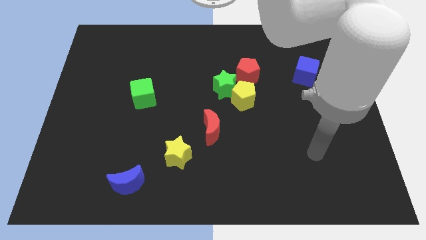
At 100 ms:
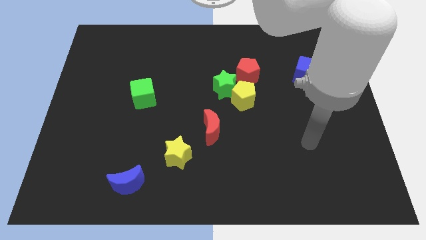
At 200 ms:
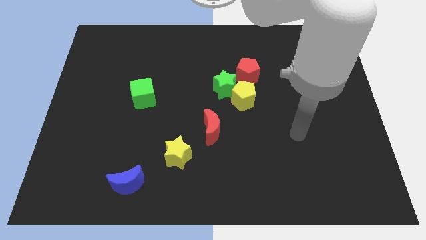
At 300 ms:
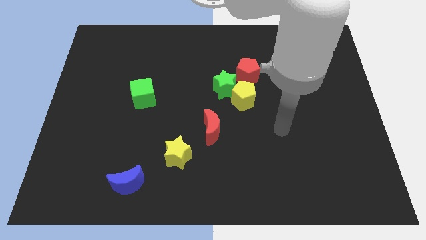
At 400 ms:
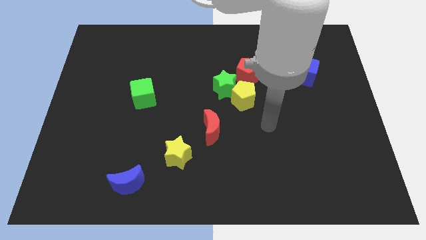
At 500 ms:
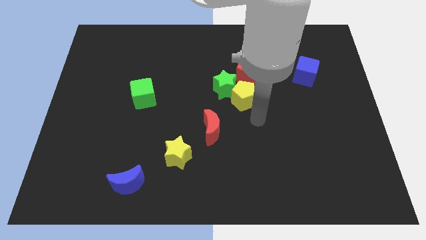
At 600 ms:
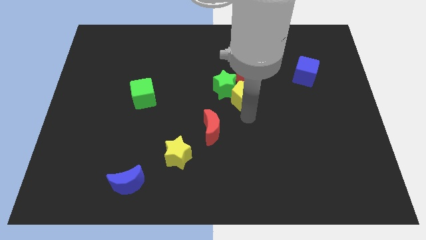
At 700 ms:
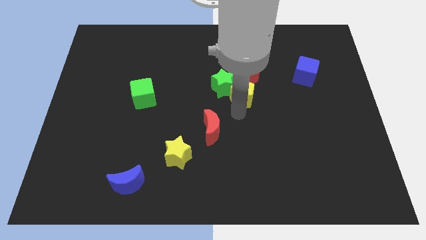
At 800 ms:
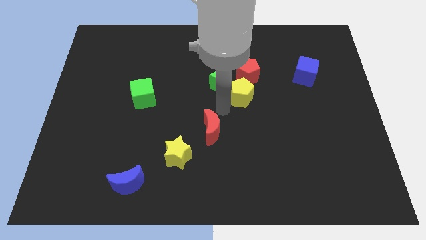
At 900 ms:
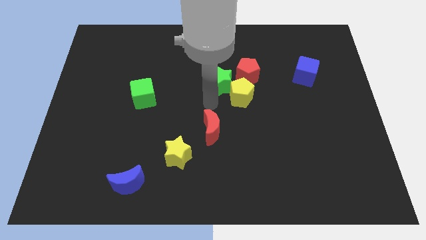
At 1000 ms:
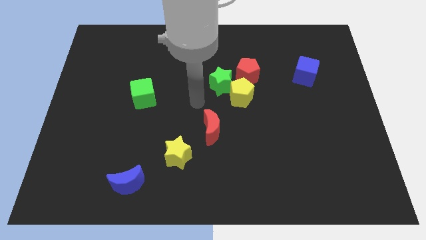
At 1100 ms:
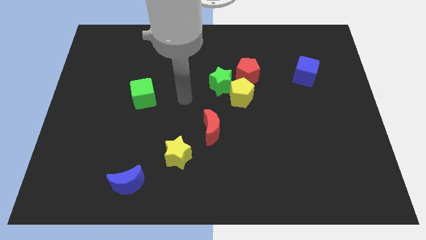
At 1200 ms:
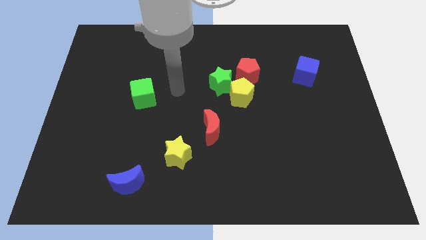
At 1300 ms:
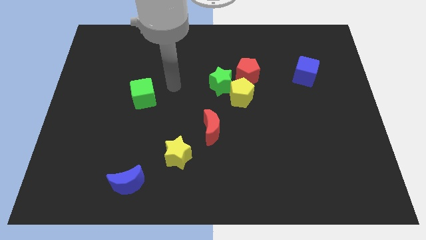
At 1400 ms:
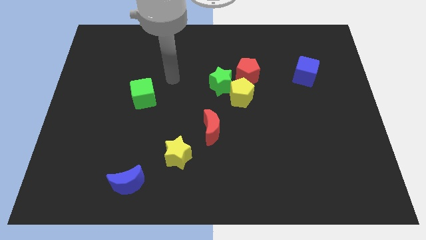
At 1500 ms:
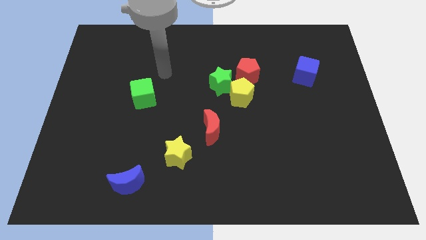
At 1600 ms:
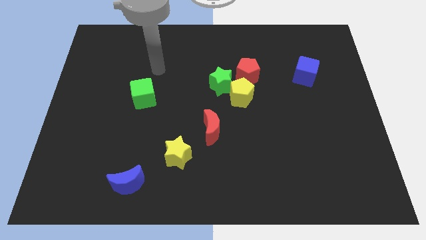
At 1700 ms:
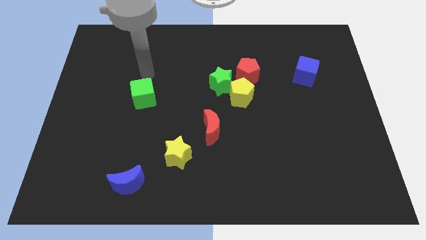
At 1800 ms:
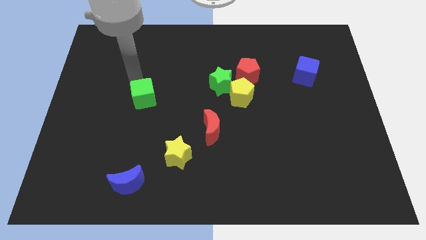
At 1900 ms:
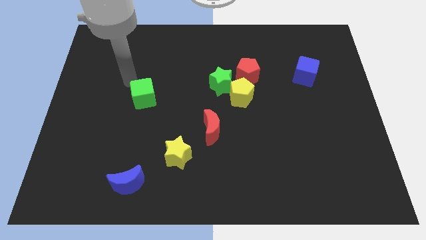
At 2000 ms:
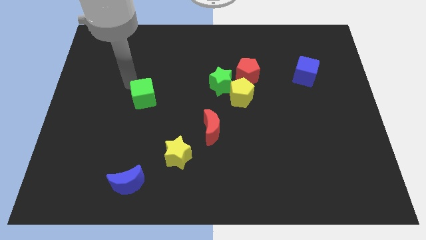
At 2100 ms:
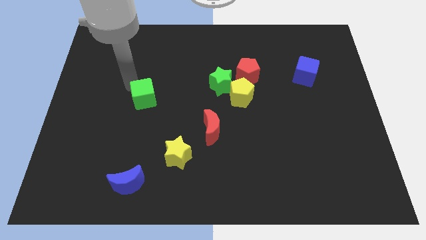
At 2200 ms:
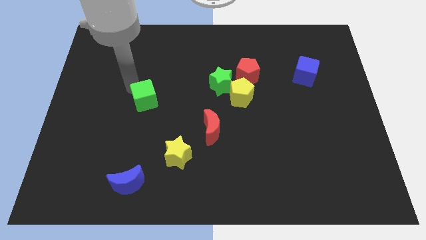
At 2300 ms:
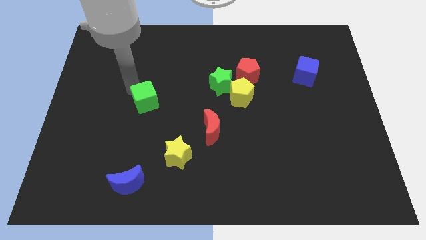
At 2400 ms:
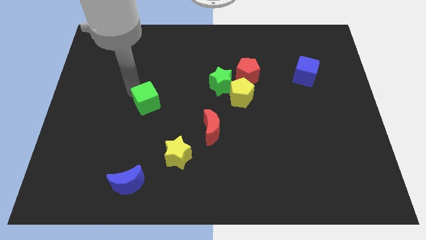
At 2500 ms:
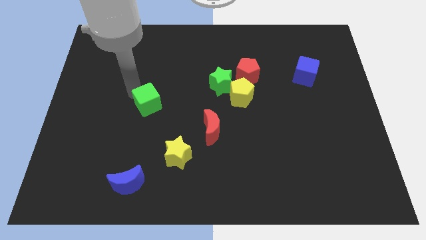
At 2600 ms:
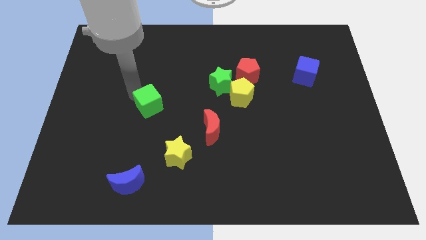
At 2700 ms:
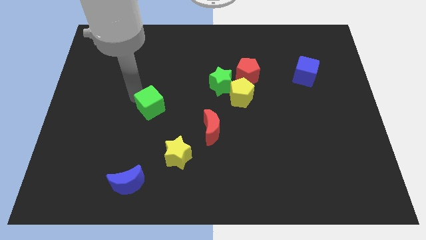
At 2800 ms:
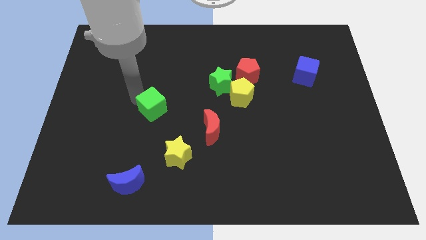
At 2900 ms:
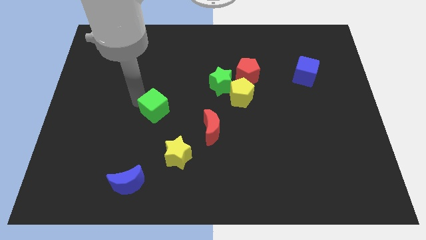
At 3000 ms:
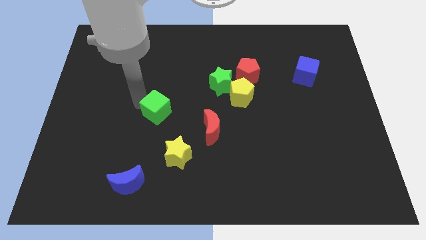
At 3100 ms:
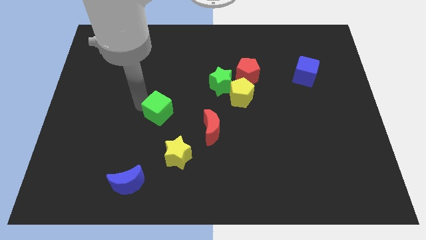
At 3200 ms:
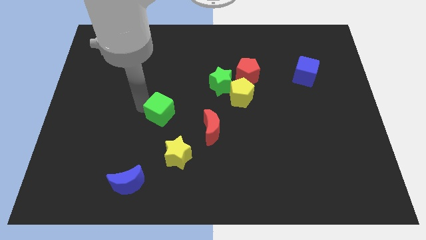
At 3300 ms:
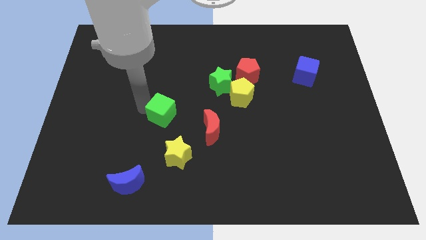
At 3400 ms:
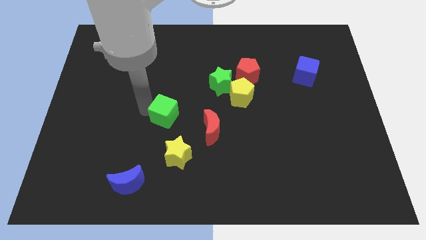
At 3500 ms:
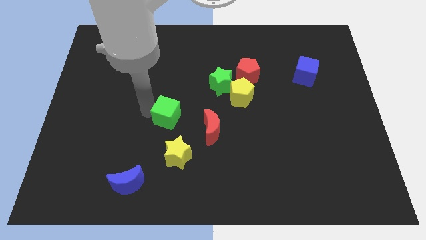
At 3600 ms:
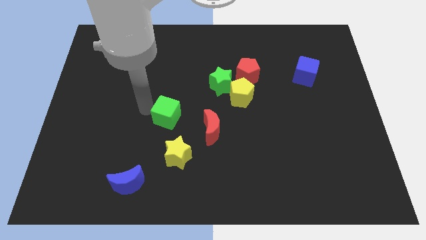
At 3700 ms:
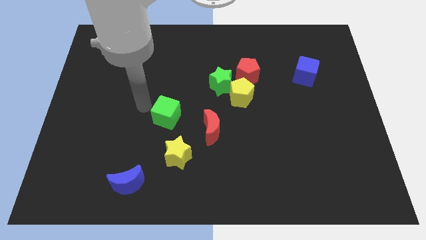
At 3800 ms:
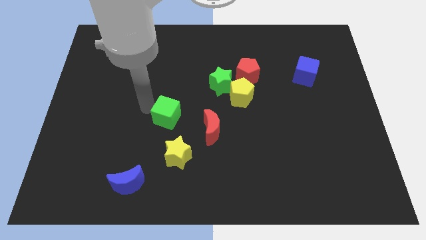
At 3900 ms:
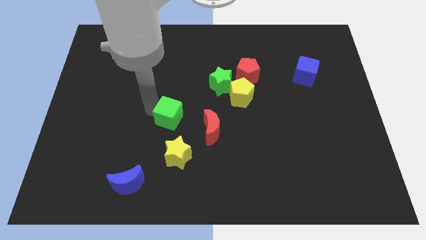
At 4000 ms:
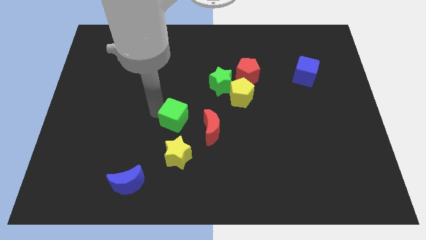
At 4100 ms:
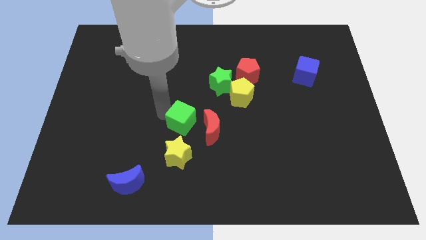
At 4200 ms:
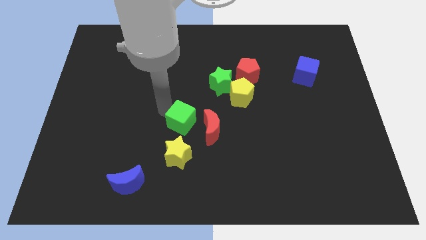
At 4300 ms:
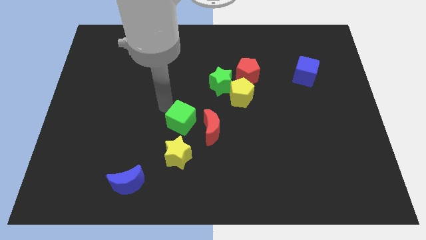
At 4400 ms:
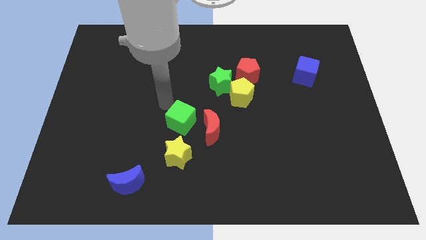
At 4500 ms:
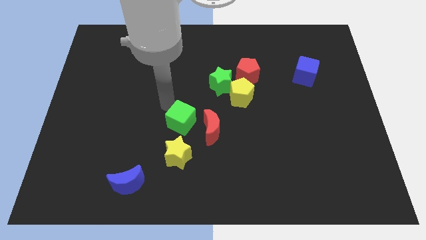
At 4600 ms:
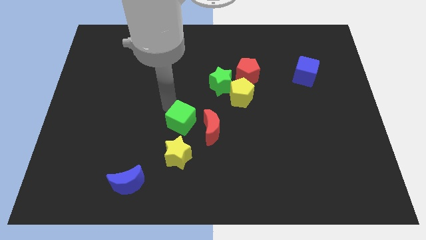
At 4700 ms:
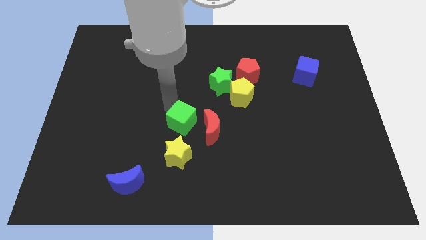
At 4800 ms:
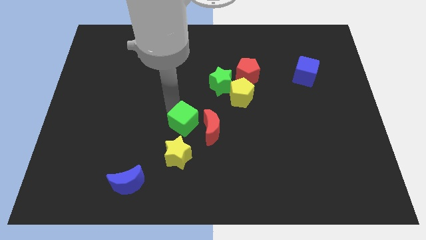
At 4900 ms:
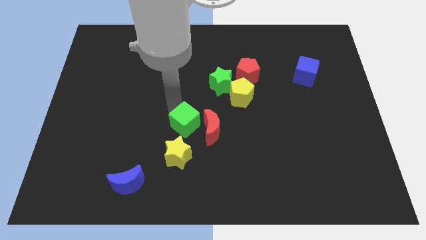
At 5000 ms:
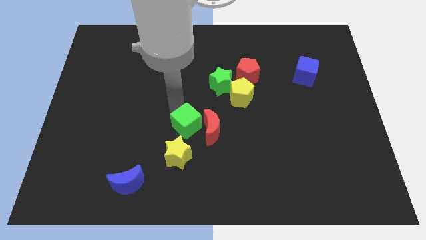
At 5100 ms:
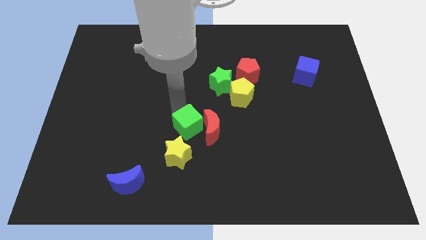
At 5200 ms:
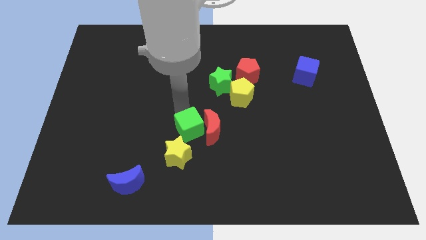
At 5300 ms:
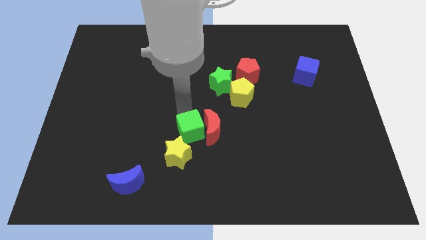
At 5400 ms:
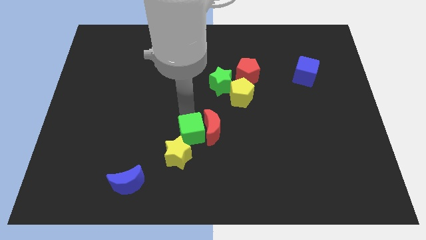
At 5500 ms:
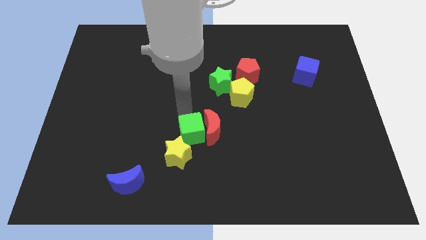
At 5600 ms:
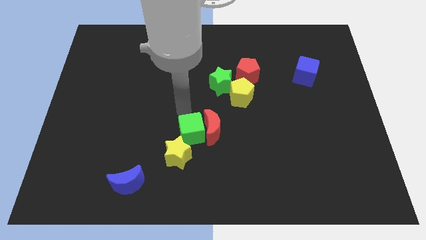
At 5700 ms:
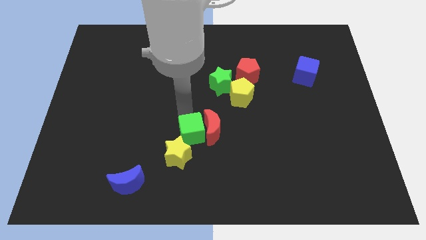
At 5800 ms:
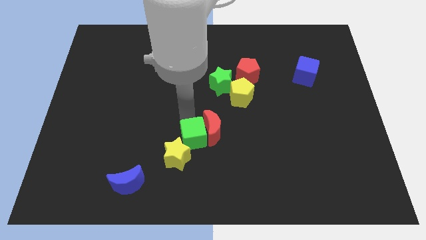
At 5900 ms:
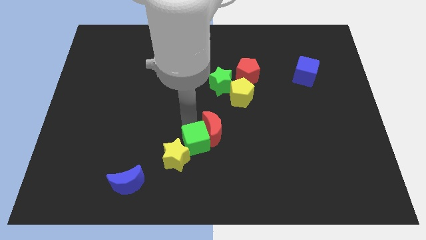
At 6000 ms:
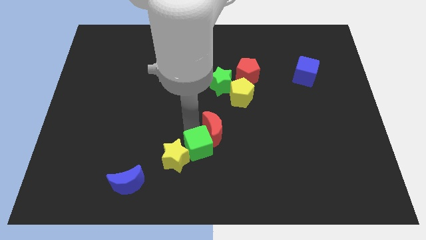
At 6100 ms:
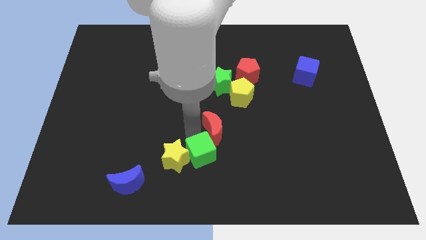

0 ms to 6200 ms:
push the green cube down and right diagonally

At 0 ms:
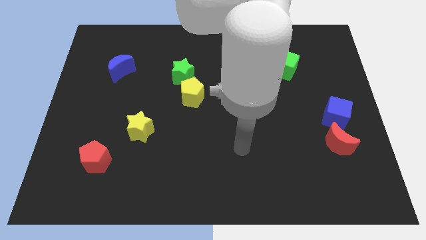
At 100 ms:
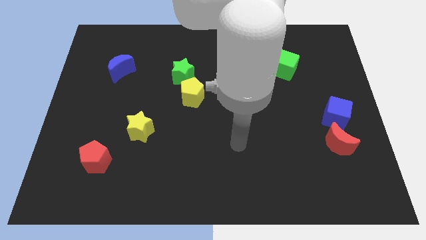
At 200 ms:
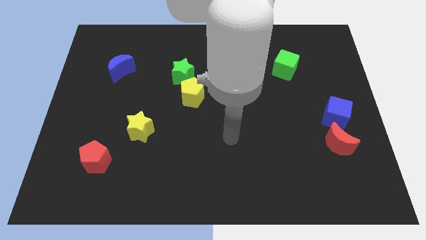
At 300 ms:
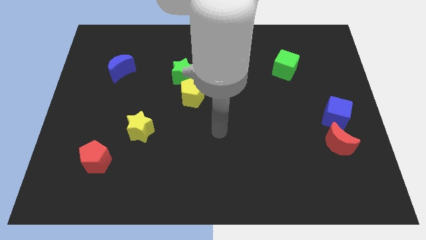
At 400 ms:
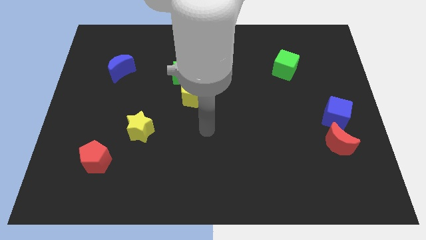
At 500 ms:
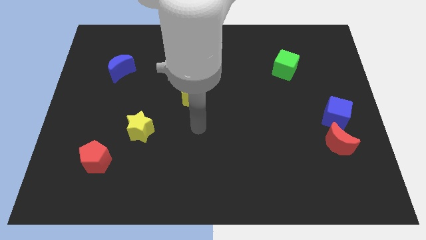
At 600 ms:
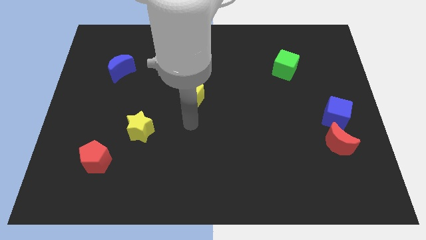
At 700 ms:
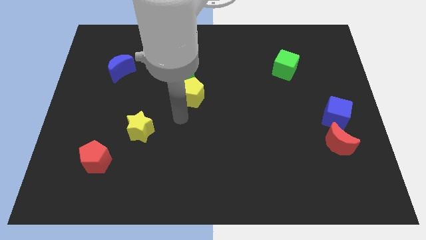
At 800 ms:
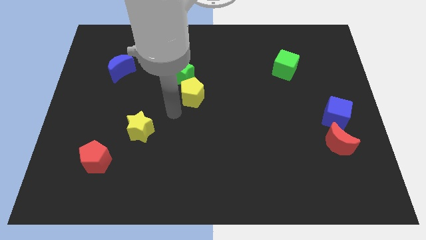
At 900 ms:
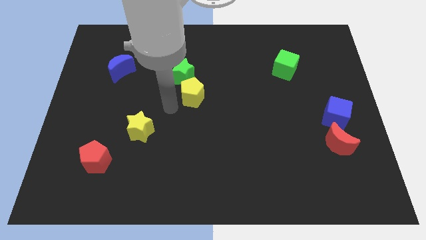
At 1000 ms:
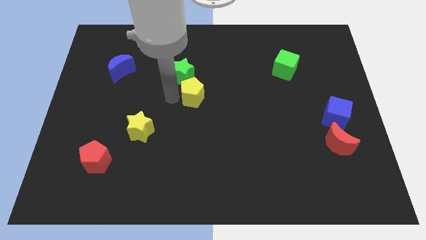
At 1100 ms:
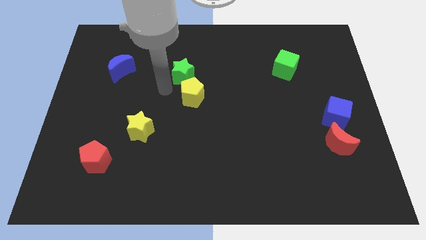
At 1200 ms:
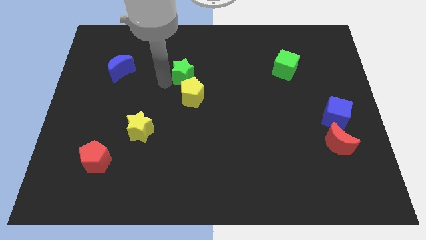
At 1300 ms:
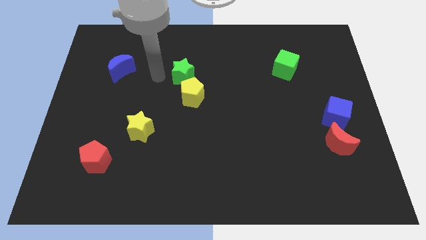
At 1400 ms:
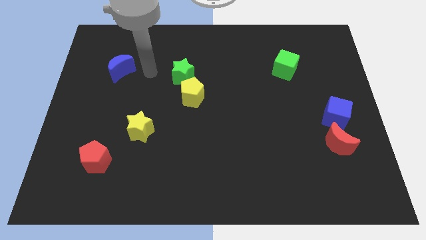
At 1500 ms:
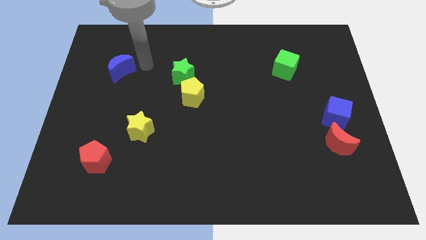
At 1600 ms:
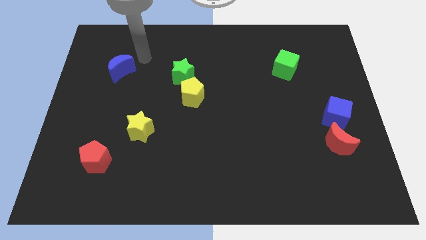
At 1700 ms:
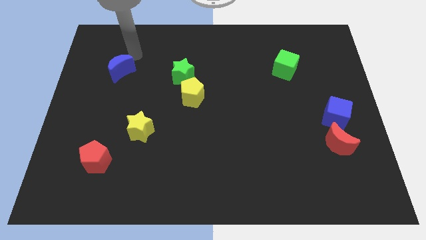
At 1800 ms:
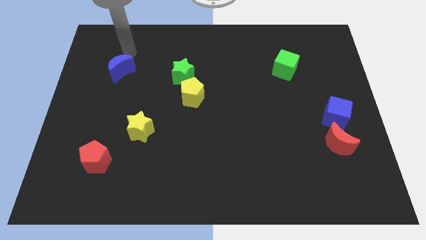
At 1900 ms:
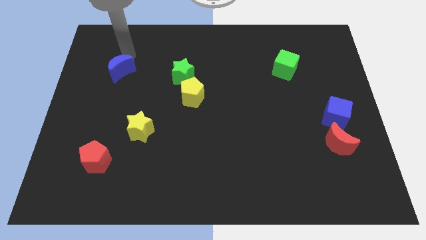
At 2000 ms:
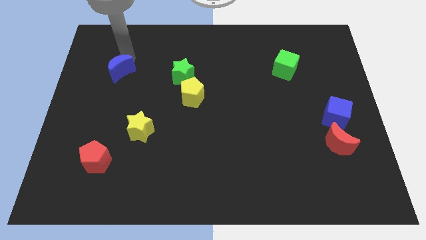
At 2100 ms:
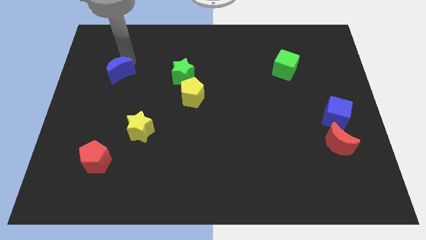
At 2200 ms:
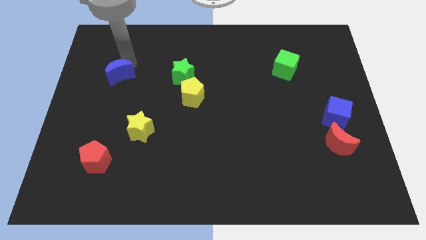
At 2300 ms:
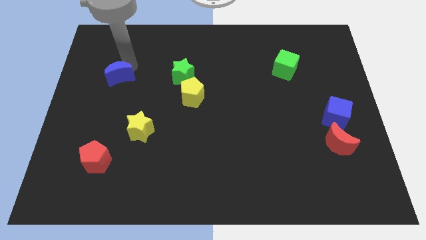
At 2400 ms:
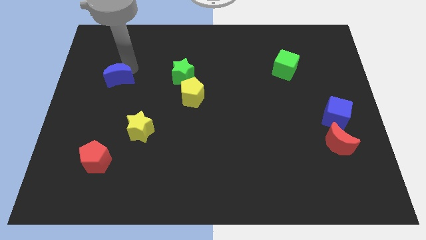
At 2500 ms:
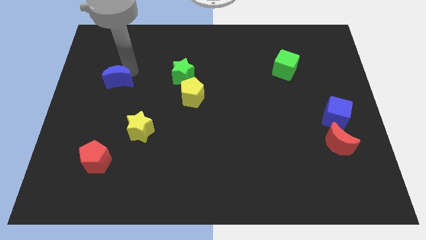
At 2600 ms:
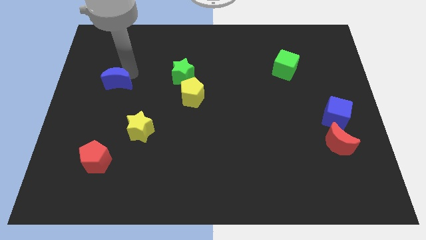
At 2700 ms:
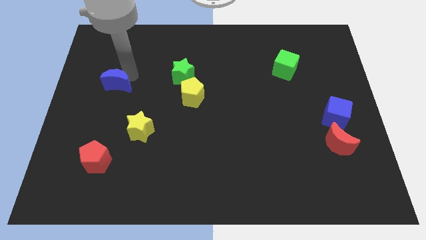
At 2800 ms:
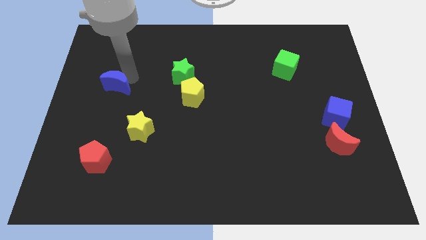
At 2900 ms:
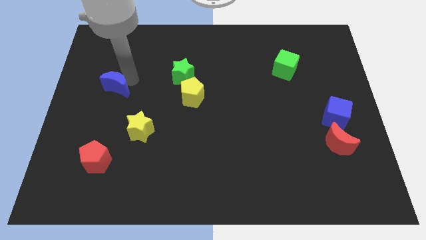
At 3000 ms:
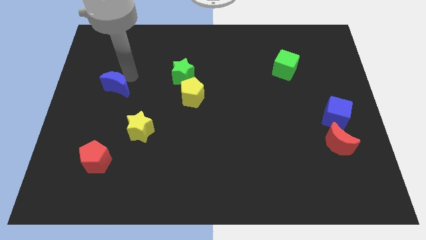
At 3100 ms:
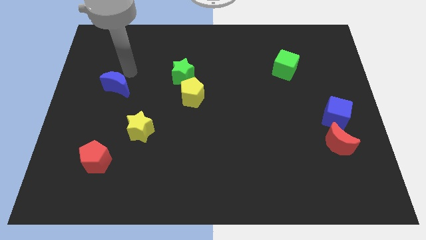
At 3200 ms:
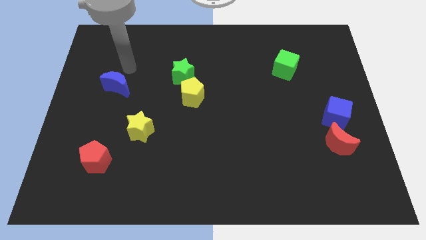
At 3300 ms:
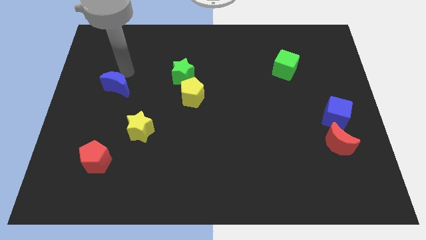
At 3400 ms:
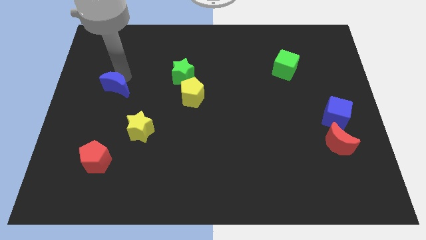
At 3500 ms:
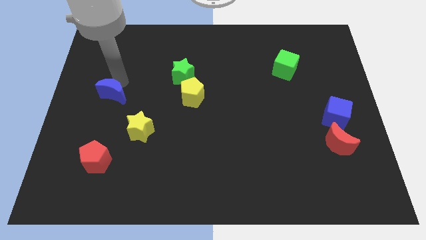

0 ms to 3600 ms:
slightly move the blue moon down
